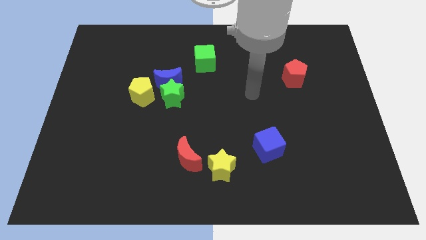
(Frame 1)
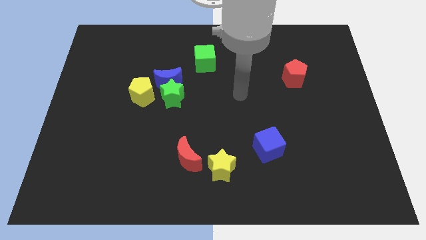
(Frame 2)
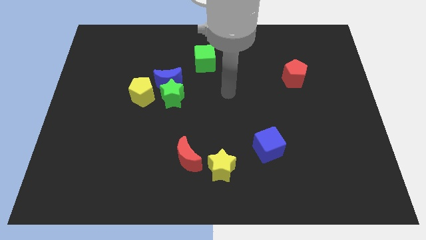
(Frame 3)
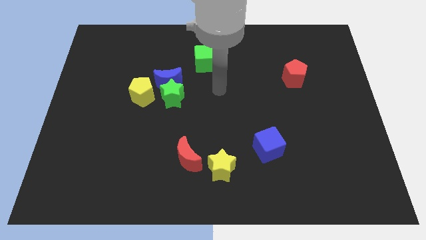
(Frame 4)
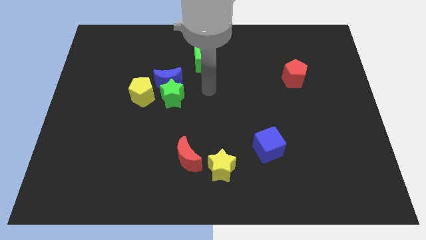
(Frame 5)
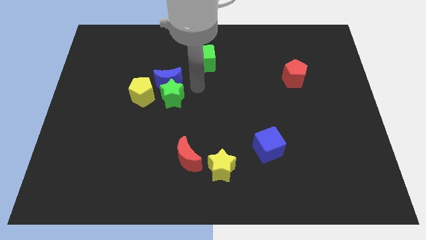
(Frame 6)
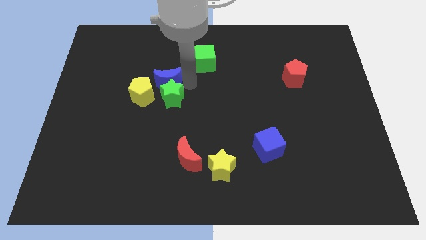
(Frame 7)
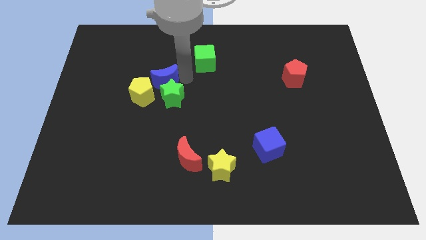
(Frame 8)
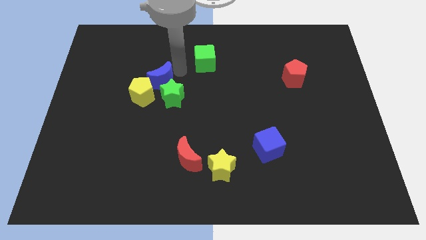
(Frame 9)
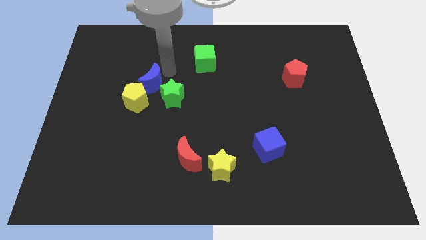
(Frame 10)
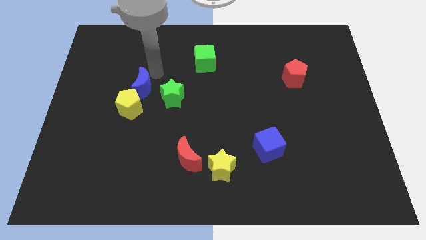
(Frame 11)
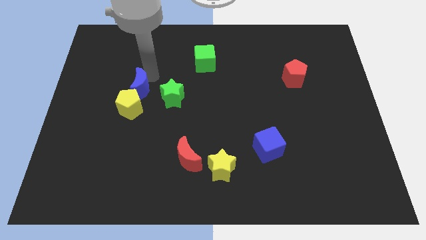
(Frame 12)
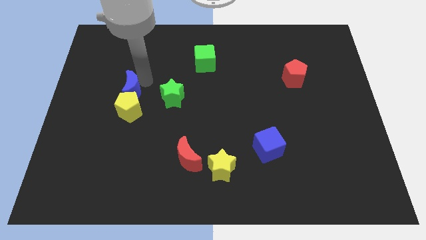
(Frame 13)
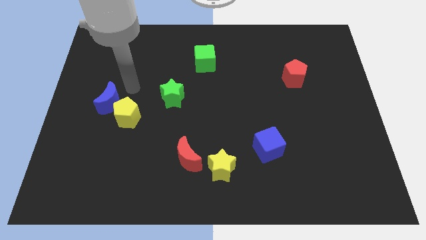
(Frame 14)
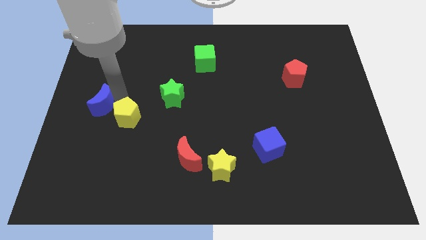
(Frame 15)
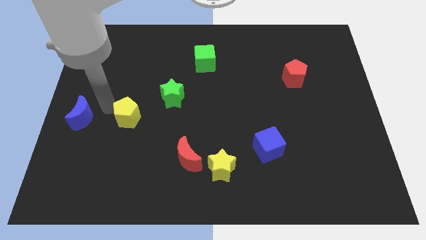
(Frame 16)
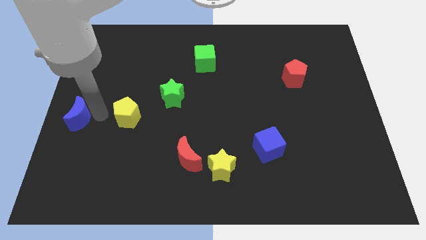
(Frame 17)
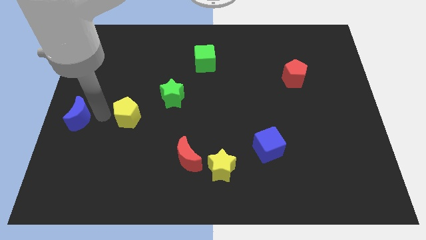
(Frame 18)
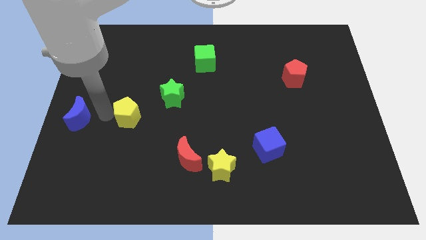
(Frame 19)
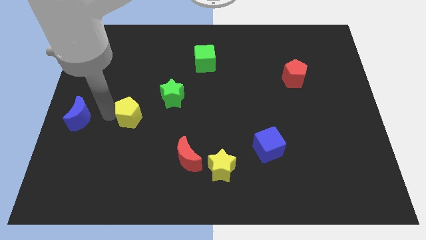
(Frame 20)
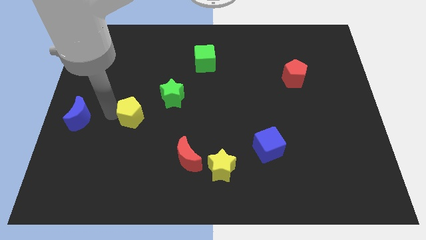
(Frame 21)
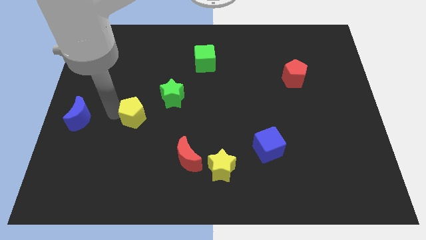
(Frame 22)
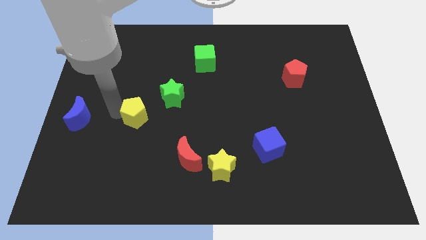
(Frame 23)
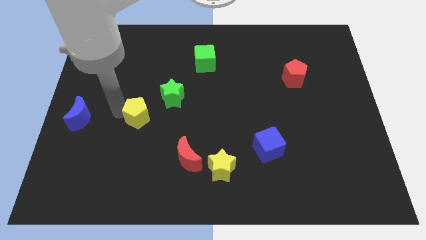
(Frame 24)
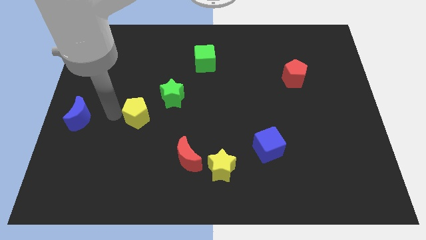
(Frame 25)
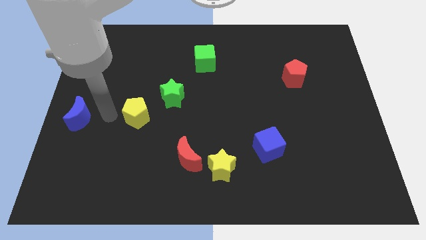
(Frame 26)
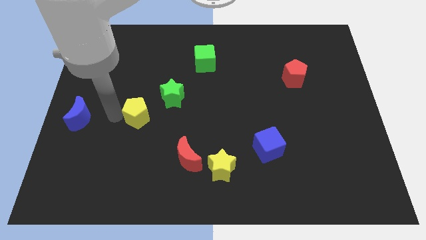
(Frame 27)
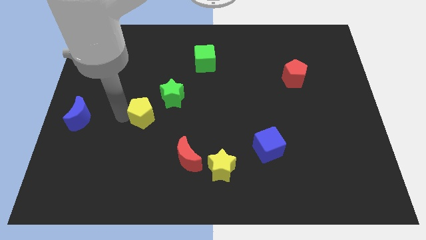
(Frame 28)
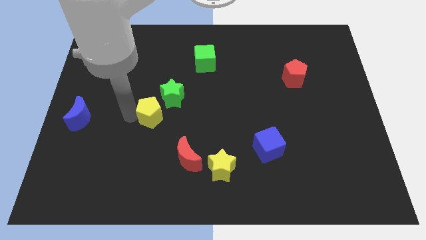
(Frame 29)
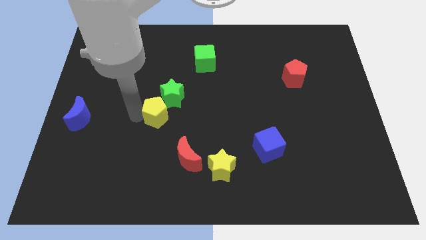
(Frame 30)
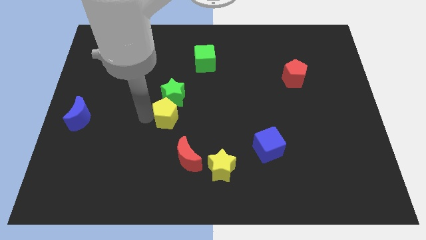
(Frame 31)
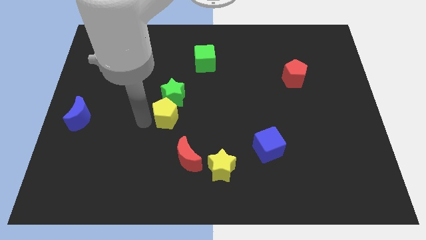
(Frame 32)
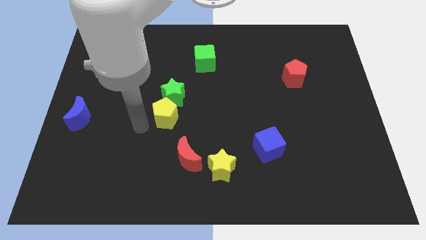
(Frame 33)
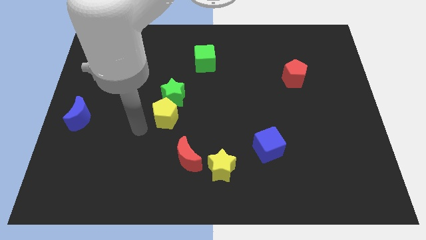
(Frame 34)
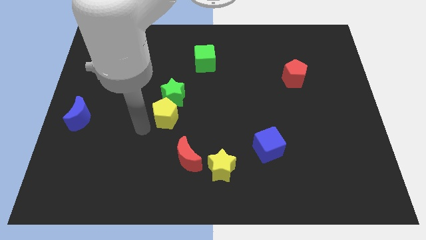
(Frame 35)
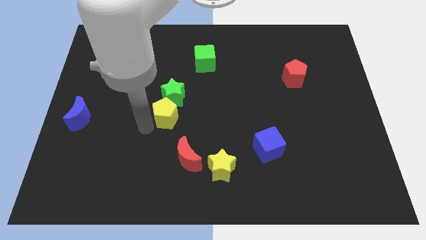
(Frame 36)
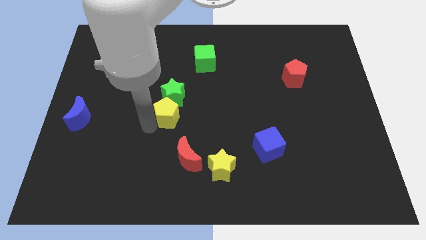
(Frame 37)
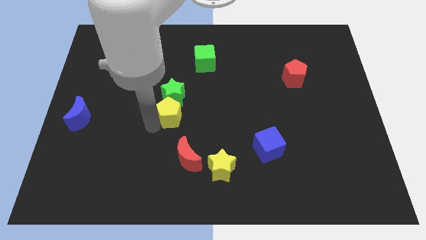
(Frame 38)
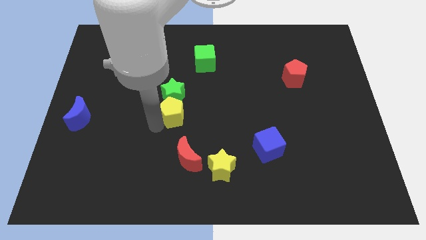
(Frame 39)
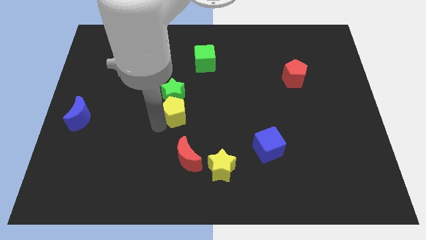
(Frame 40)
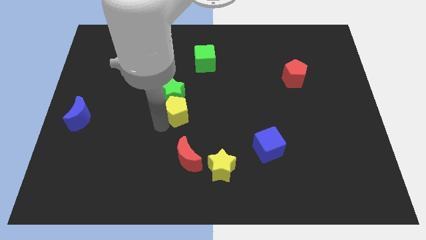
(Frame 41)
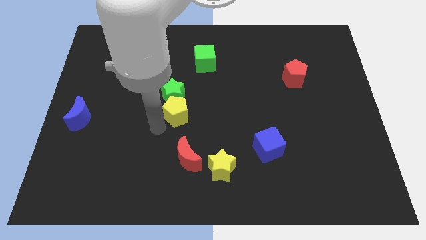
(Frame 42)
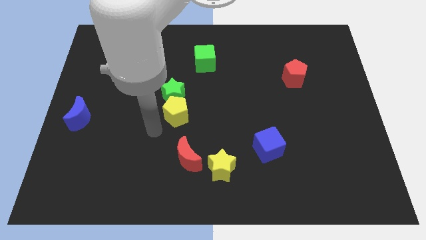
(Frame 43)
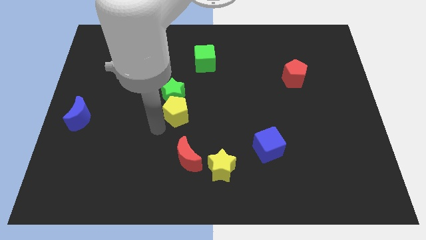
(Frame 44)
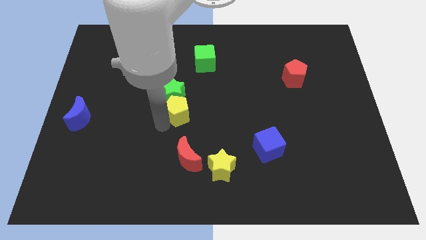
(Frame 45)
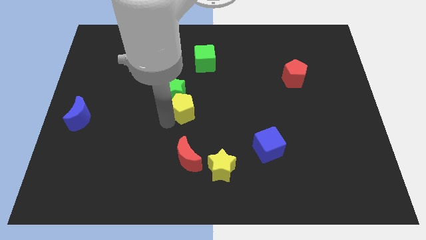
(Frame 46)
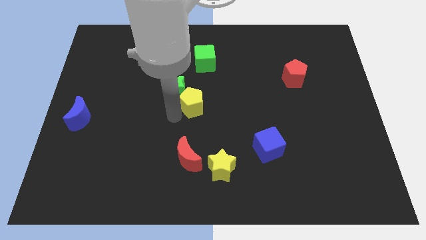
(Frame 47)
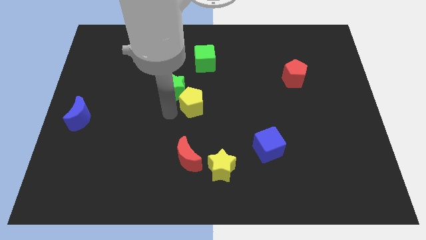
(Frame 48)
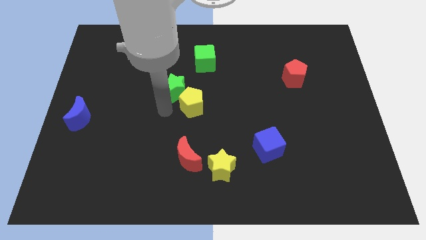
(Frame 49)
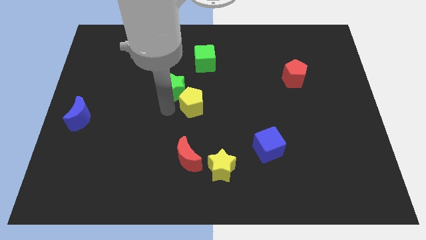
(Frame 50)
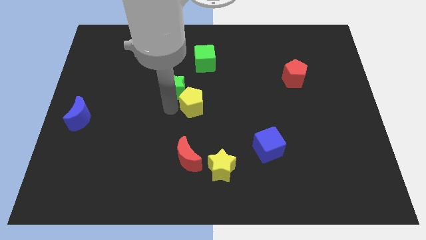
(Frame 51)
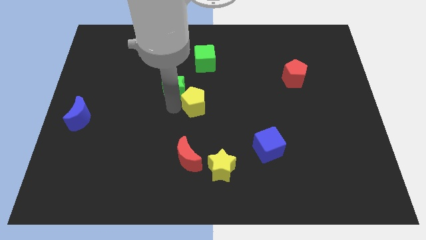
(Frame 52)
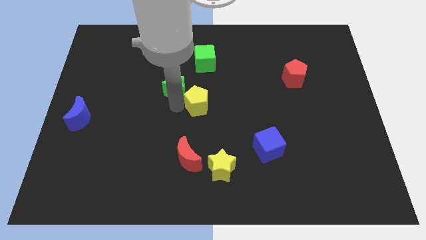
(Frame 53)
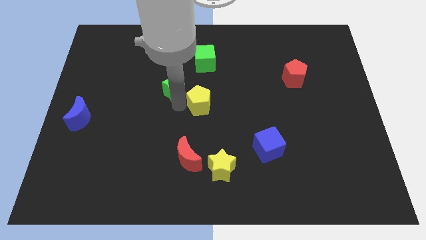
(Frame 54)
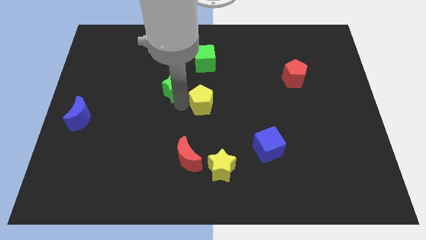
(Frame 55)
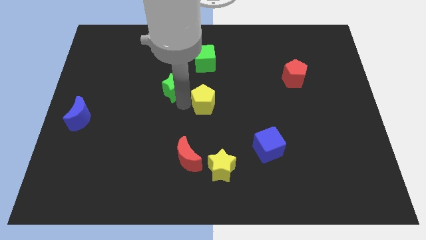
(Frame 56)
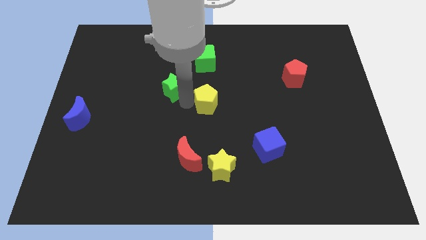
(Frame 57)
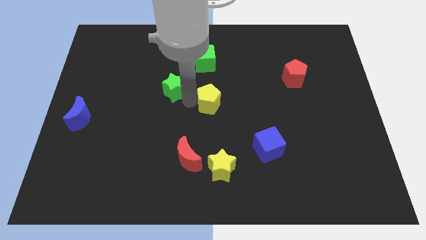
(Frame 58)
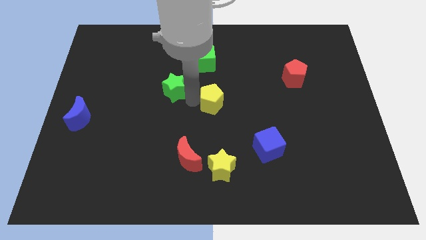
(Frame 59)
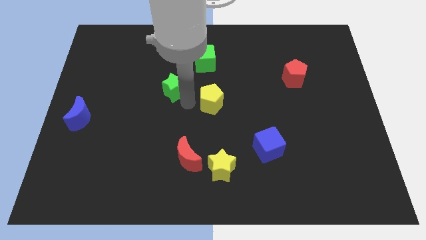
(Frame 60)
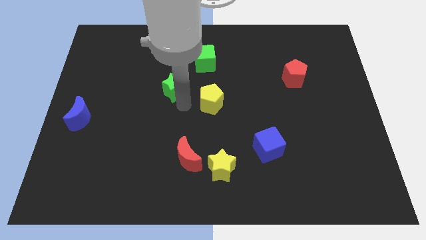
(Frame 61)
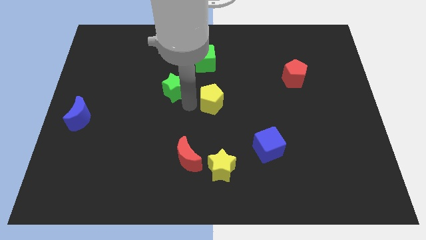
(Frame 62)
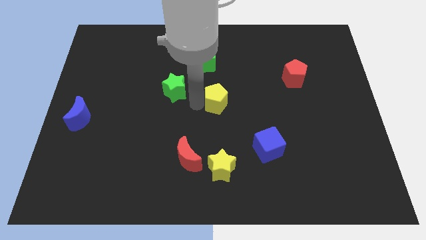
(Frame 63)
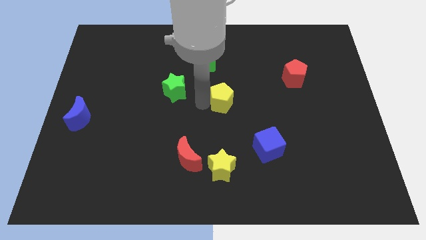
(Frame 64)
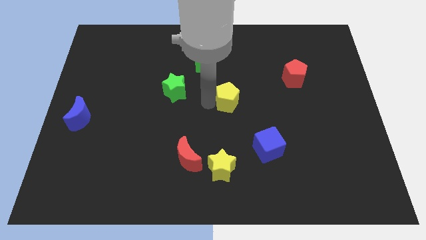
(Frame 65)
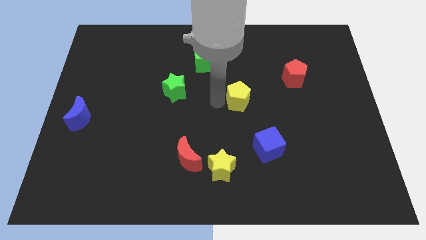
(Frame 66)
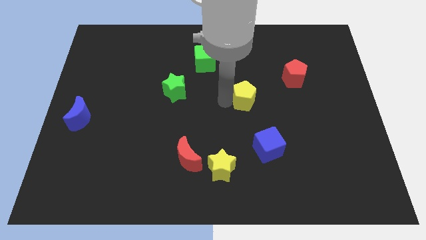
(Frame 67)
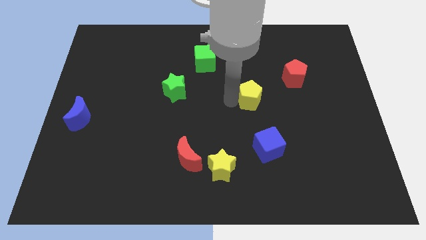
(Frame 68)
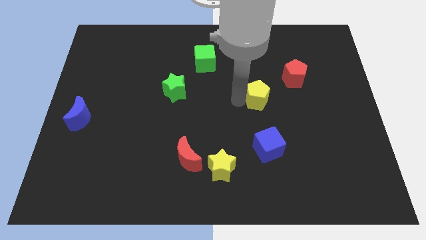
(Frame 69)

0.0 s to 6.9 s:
push the yellow pentagon diagonally down and to the left of the red pentagon

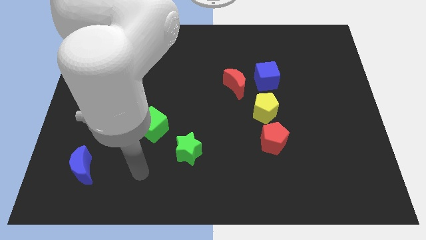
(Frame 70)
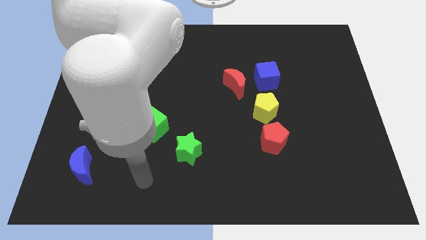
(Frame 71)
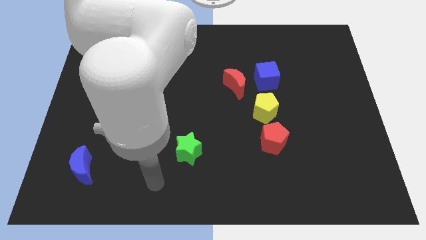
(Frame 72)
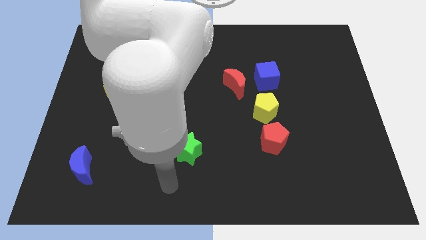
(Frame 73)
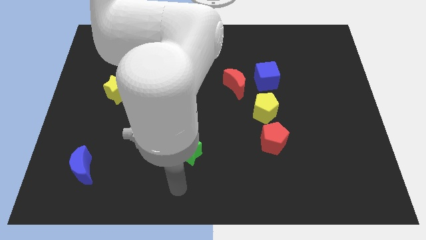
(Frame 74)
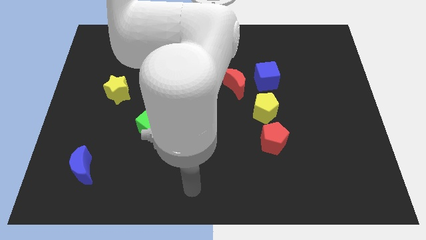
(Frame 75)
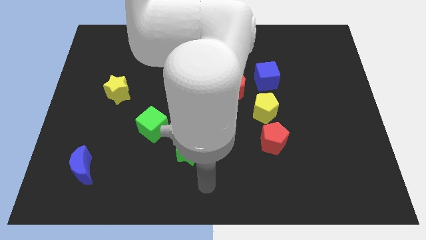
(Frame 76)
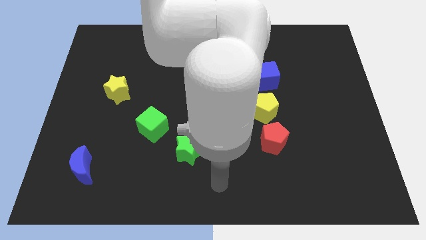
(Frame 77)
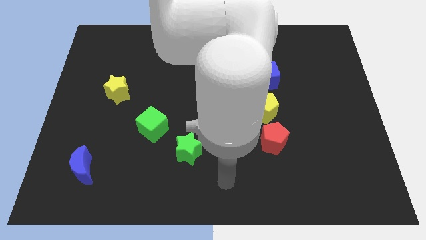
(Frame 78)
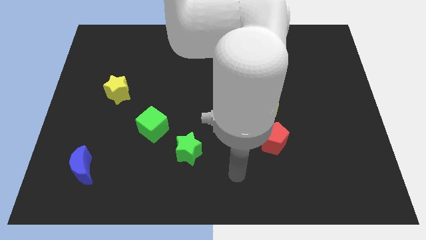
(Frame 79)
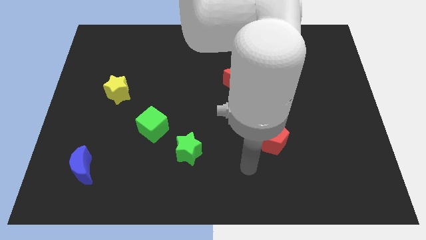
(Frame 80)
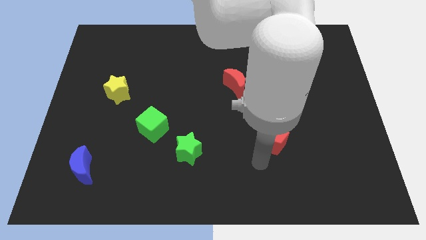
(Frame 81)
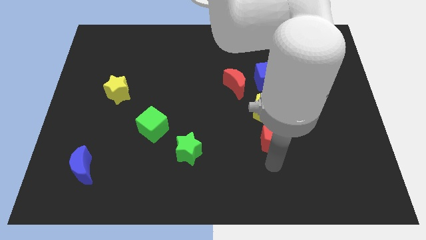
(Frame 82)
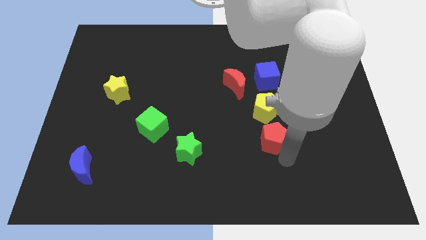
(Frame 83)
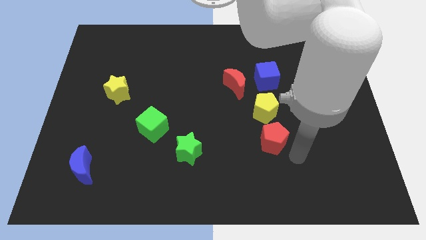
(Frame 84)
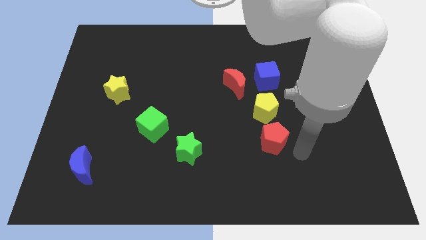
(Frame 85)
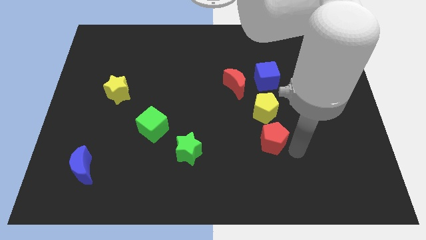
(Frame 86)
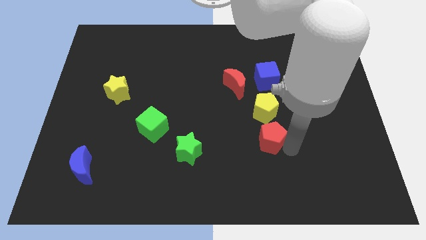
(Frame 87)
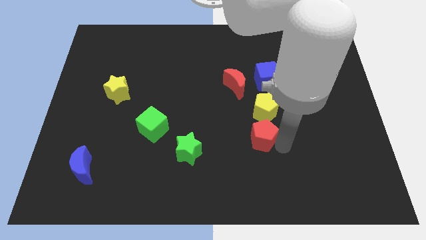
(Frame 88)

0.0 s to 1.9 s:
move the red pentagon to the bottom left side of the yellow pentagon
